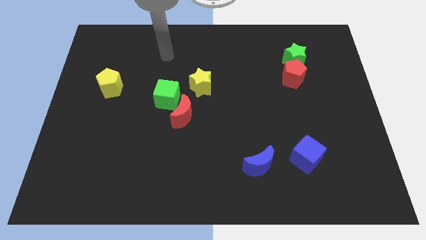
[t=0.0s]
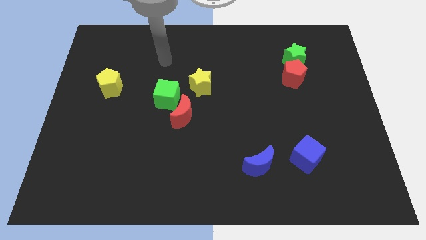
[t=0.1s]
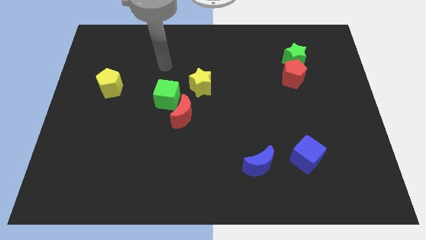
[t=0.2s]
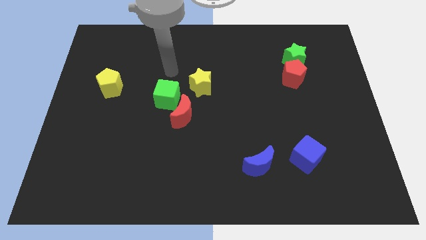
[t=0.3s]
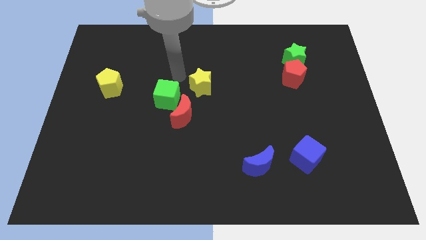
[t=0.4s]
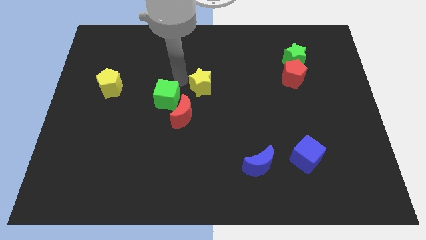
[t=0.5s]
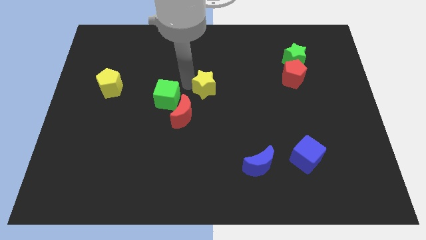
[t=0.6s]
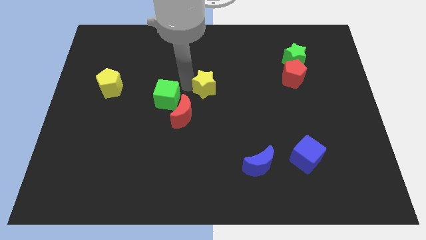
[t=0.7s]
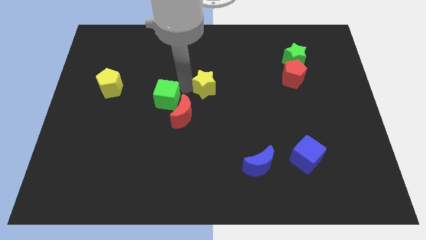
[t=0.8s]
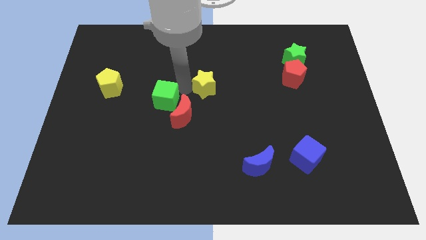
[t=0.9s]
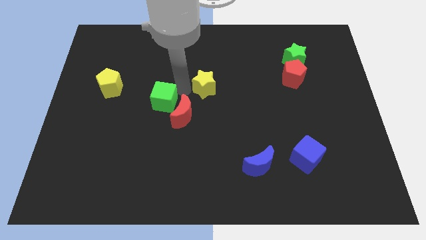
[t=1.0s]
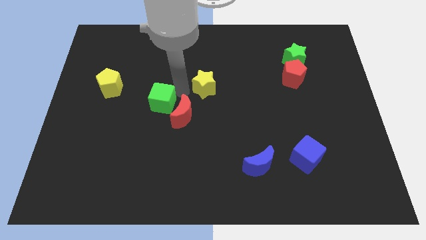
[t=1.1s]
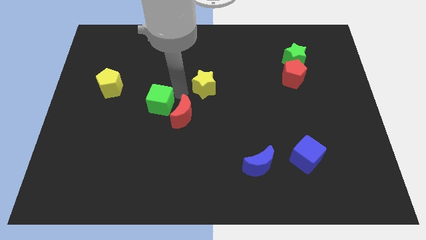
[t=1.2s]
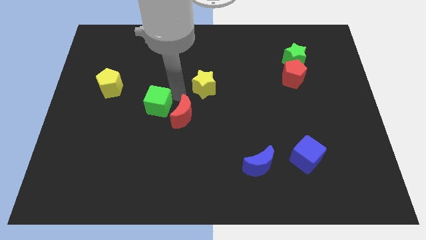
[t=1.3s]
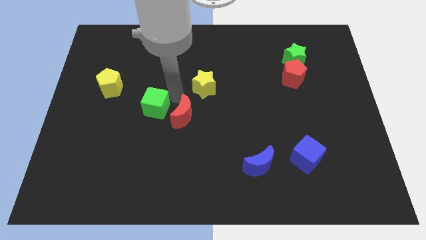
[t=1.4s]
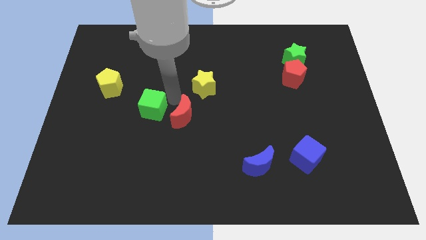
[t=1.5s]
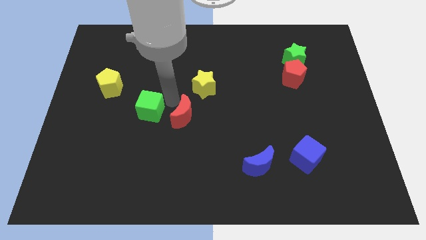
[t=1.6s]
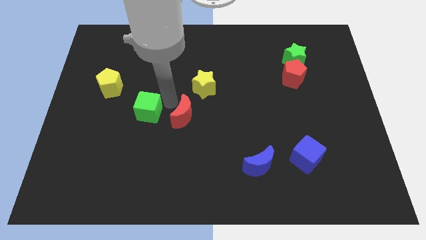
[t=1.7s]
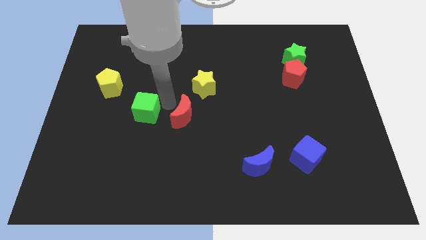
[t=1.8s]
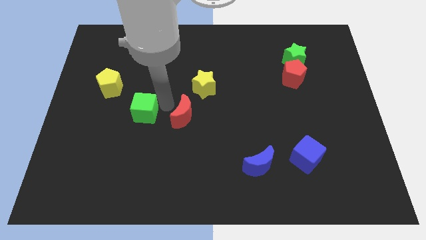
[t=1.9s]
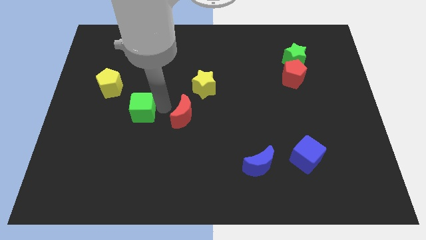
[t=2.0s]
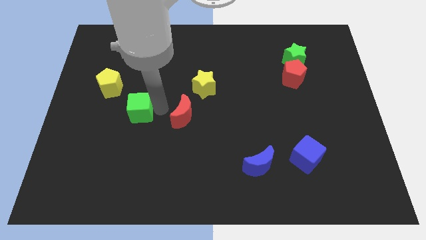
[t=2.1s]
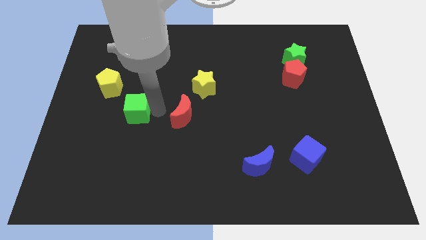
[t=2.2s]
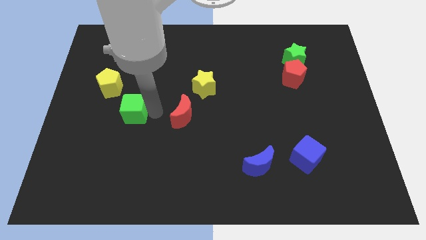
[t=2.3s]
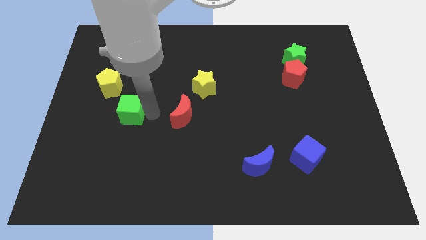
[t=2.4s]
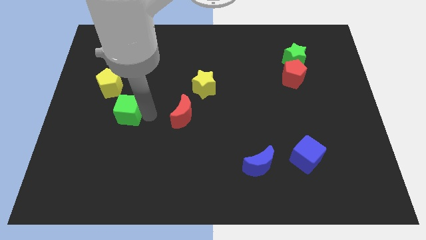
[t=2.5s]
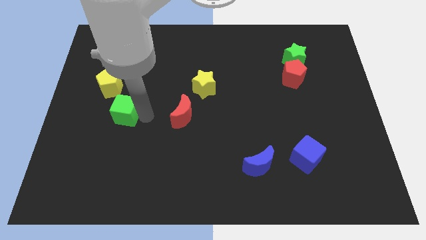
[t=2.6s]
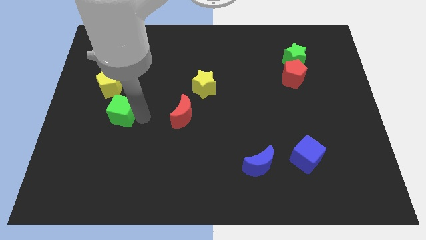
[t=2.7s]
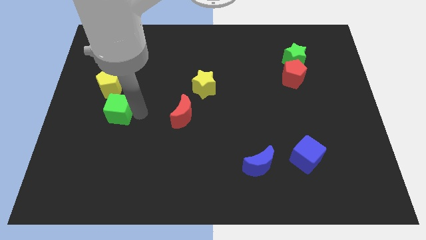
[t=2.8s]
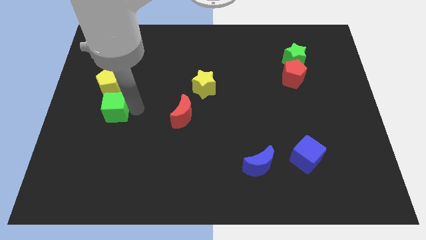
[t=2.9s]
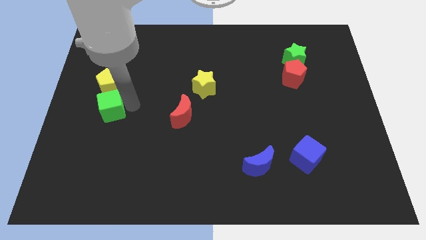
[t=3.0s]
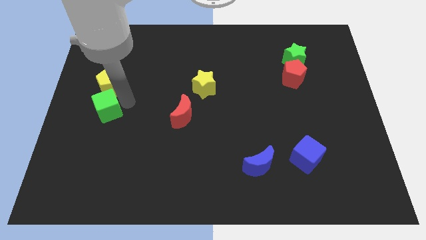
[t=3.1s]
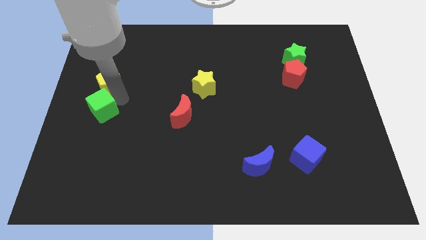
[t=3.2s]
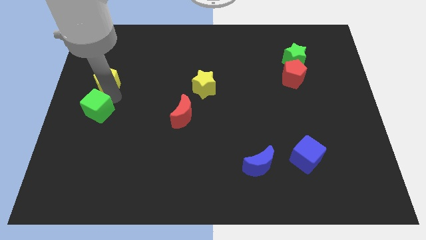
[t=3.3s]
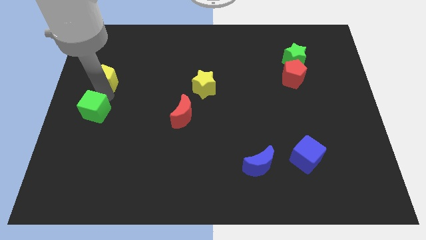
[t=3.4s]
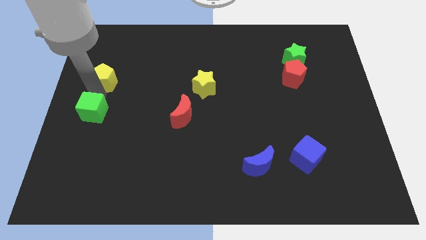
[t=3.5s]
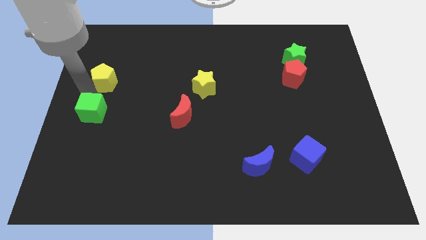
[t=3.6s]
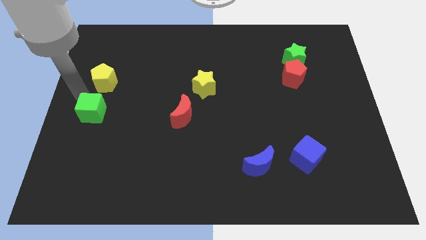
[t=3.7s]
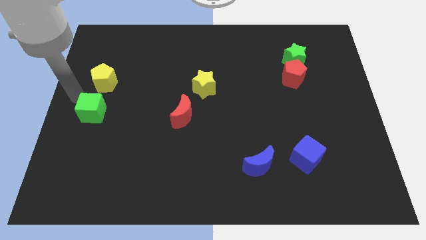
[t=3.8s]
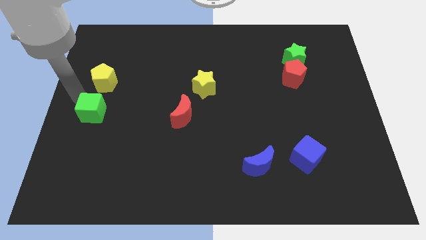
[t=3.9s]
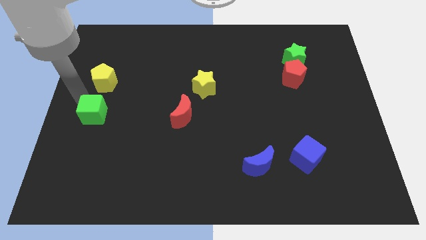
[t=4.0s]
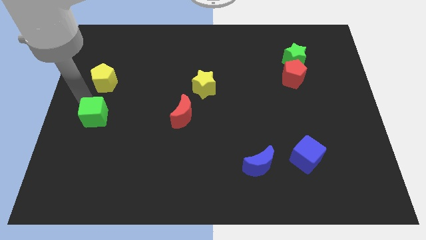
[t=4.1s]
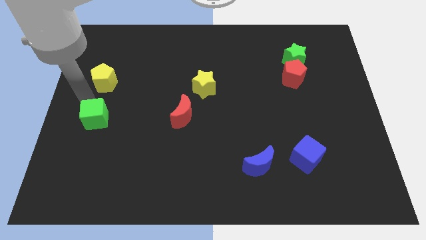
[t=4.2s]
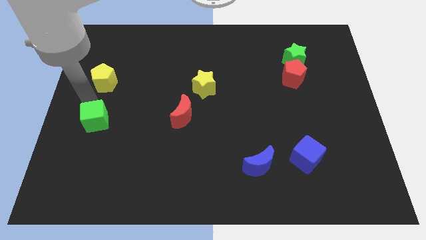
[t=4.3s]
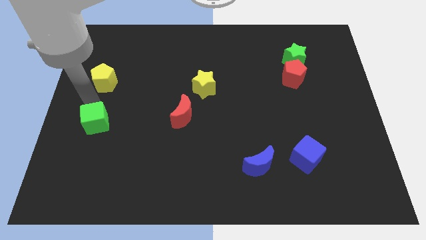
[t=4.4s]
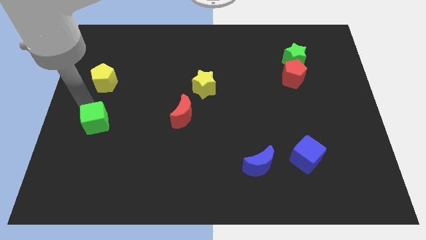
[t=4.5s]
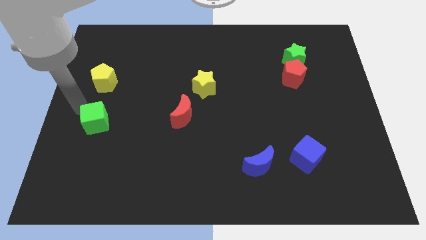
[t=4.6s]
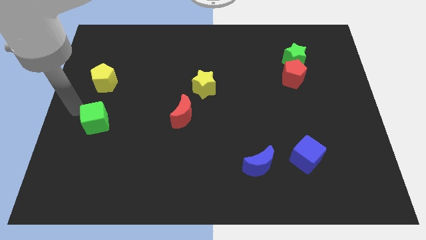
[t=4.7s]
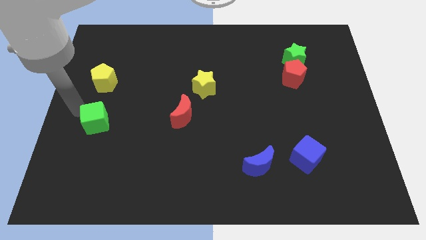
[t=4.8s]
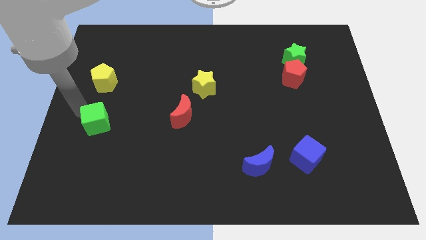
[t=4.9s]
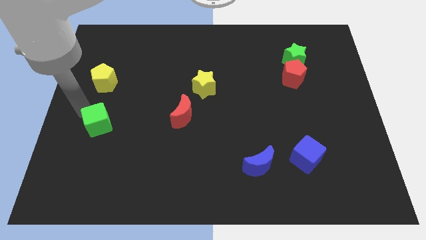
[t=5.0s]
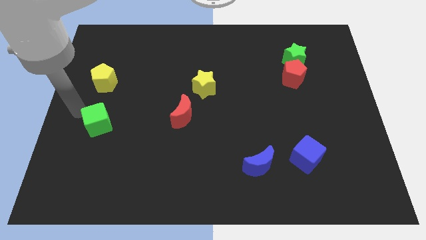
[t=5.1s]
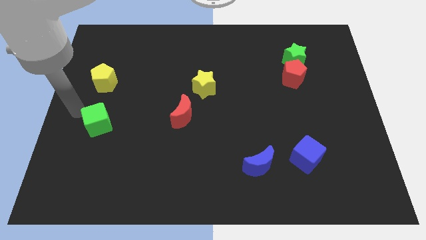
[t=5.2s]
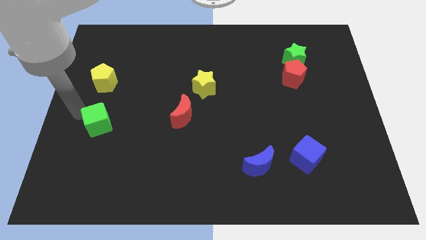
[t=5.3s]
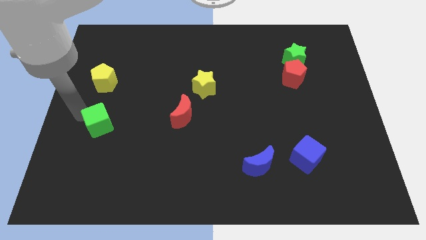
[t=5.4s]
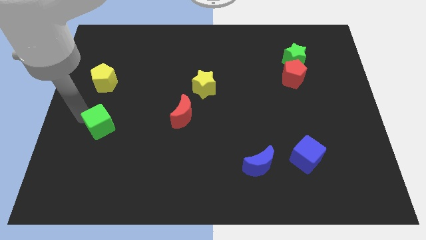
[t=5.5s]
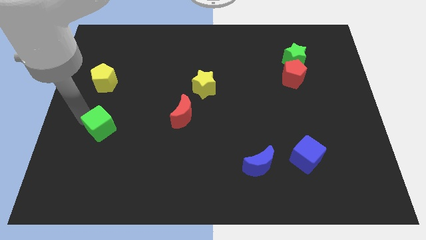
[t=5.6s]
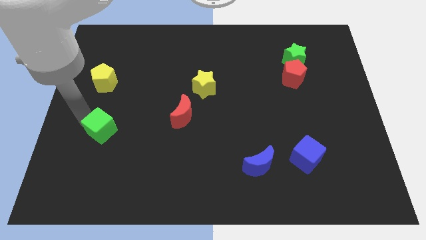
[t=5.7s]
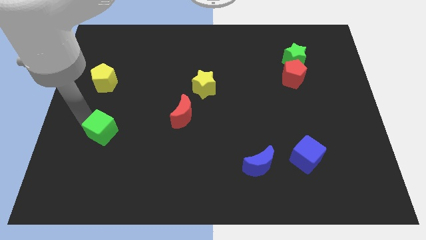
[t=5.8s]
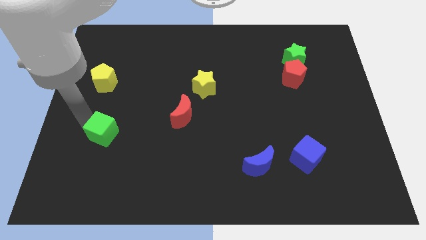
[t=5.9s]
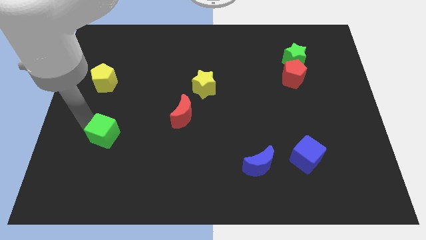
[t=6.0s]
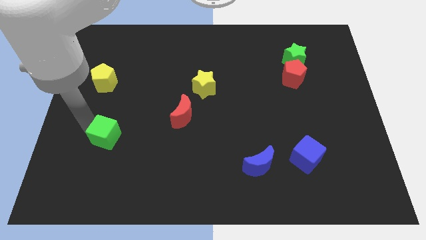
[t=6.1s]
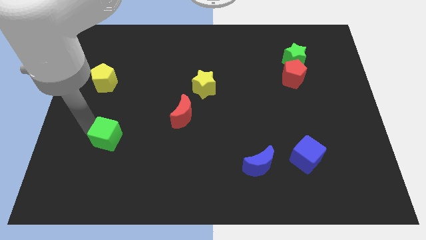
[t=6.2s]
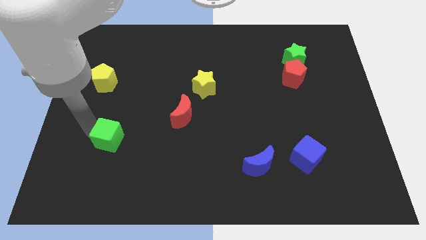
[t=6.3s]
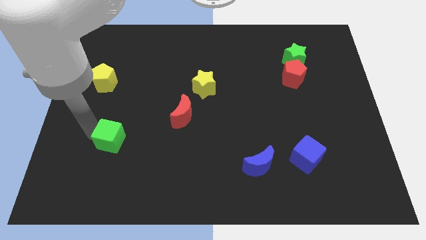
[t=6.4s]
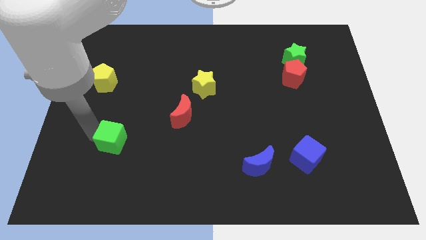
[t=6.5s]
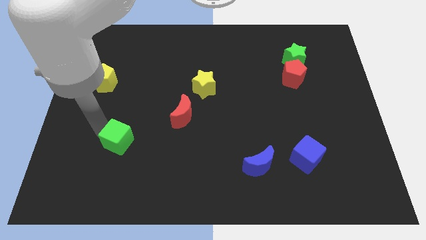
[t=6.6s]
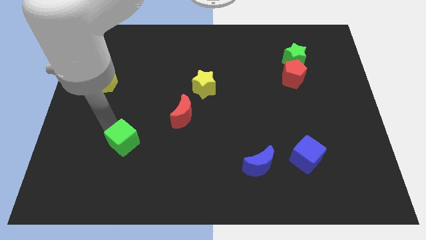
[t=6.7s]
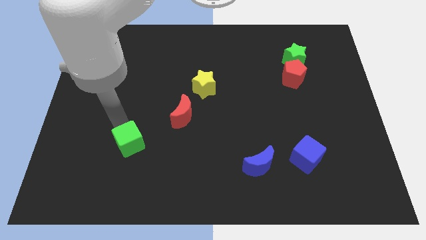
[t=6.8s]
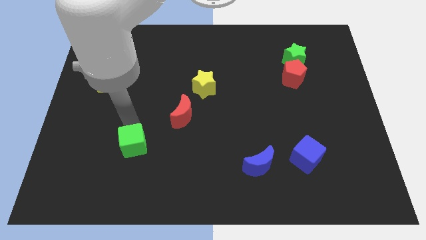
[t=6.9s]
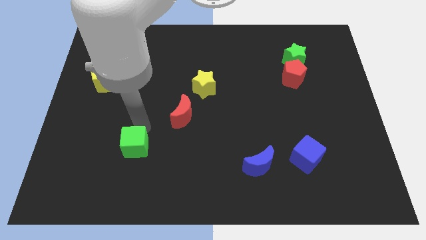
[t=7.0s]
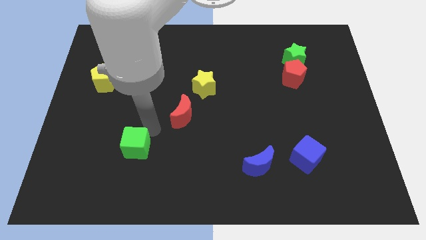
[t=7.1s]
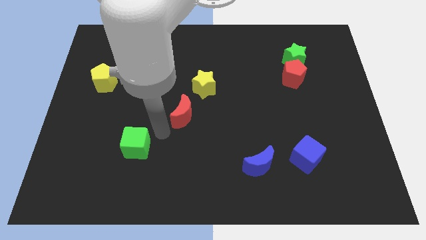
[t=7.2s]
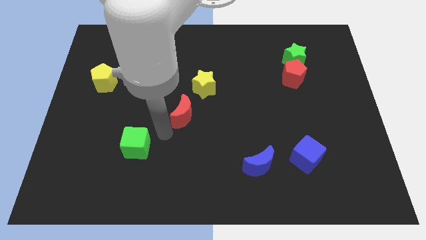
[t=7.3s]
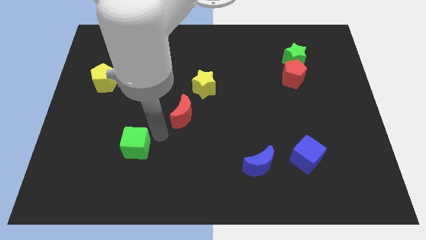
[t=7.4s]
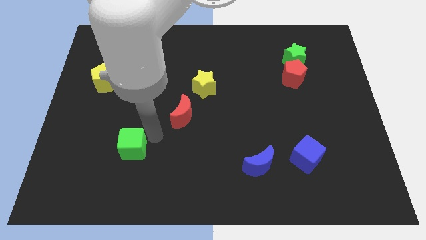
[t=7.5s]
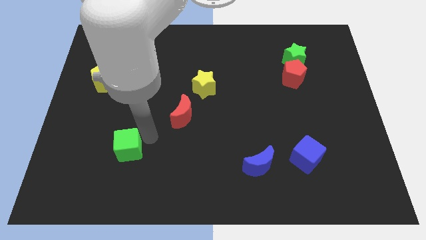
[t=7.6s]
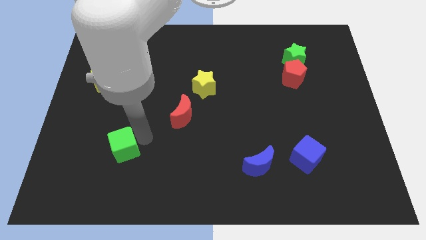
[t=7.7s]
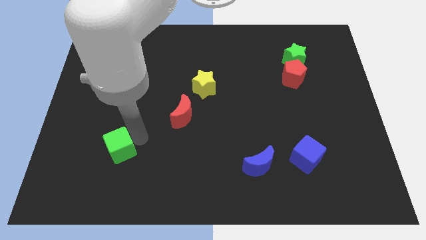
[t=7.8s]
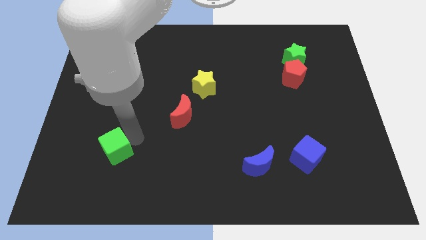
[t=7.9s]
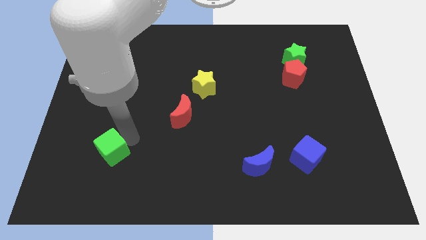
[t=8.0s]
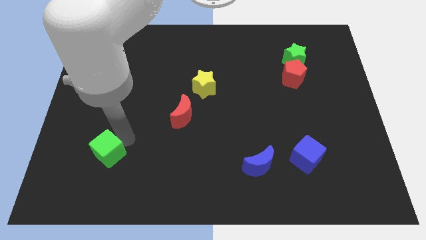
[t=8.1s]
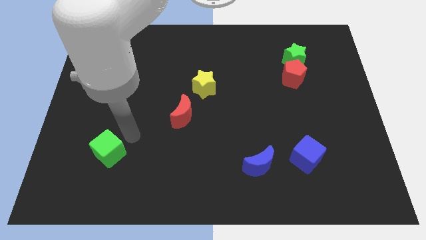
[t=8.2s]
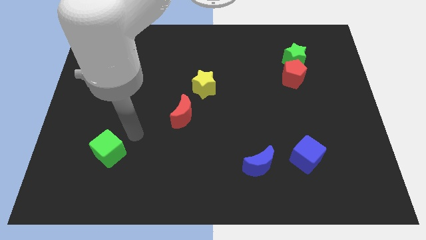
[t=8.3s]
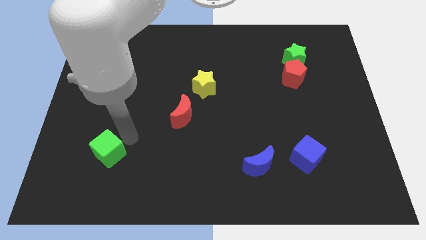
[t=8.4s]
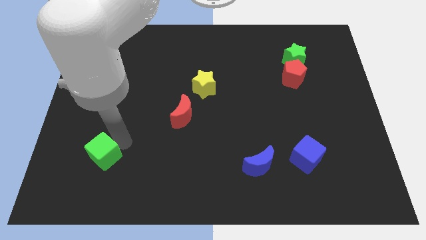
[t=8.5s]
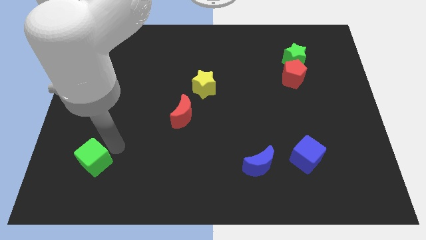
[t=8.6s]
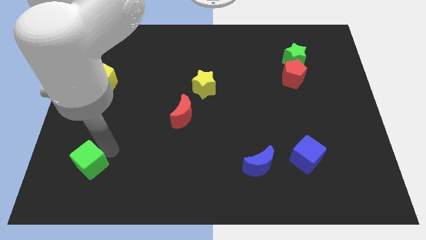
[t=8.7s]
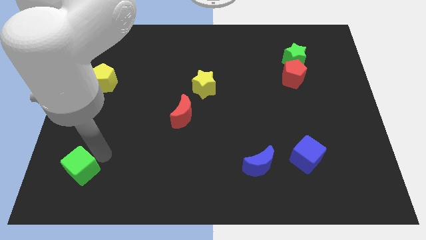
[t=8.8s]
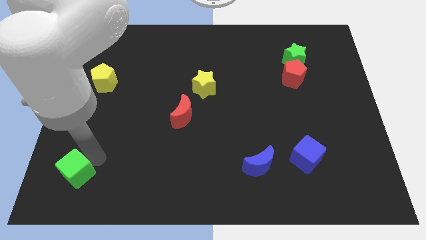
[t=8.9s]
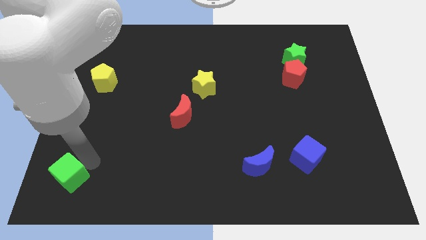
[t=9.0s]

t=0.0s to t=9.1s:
slide the green cube to the bottom left of the board
